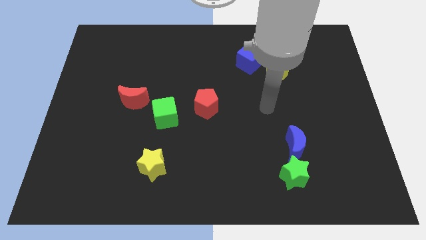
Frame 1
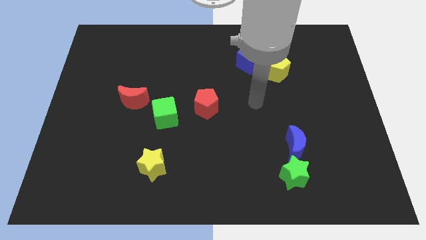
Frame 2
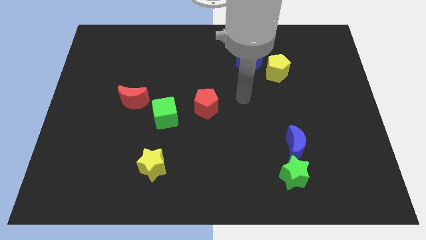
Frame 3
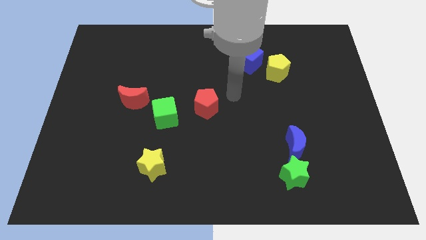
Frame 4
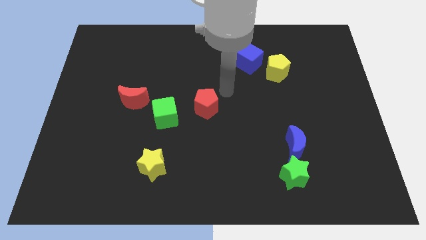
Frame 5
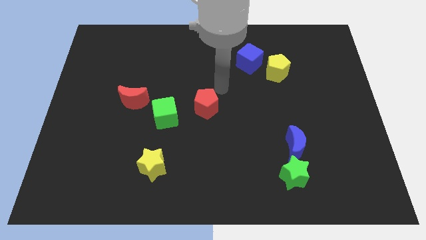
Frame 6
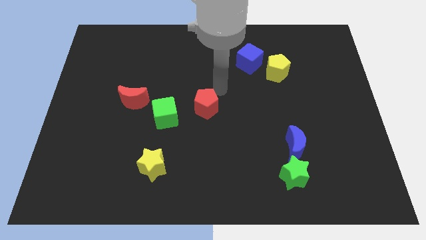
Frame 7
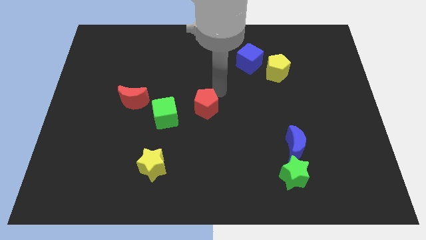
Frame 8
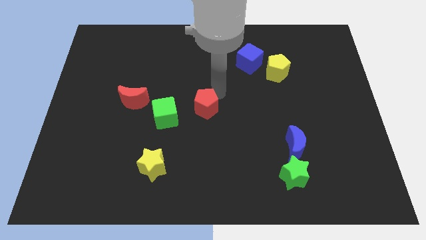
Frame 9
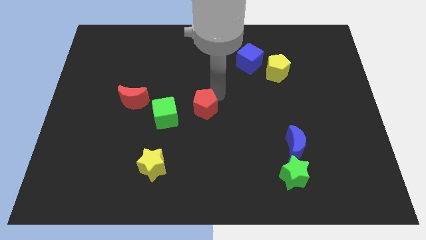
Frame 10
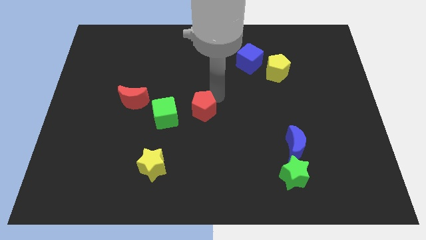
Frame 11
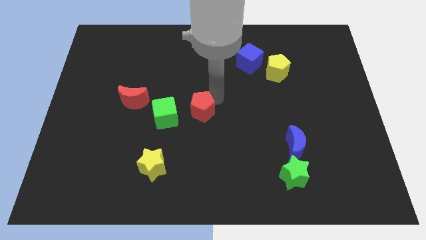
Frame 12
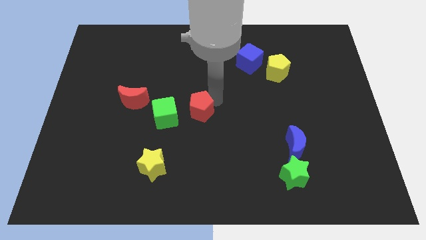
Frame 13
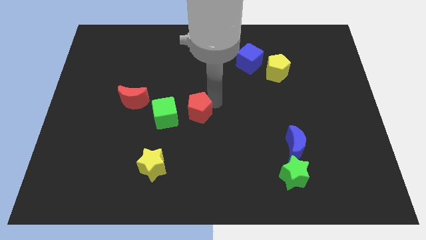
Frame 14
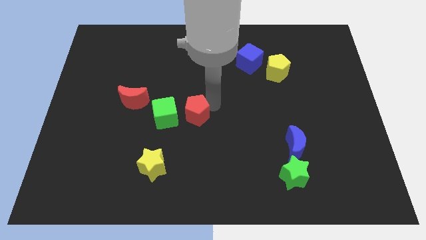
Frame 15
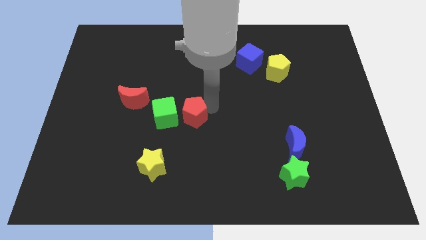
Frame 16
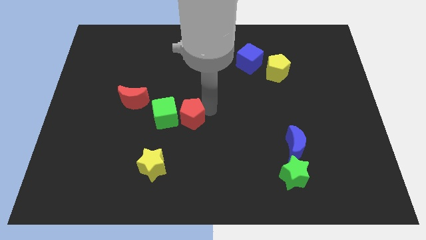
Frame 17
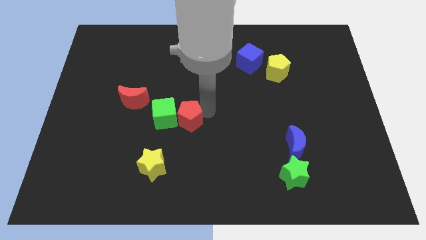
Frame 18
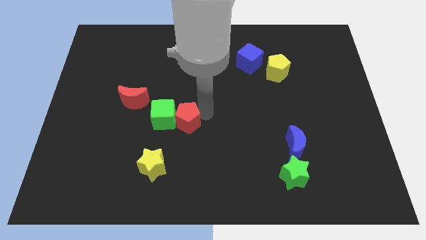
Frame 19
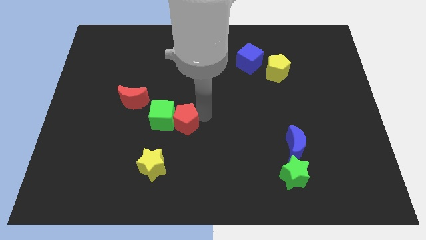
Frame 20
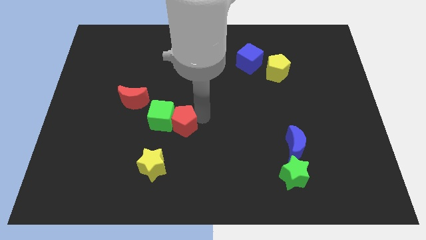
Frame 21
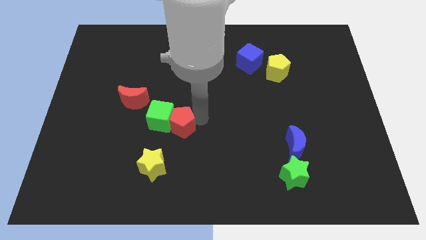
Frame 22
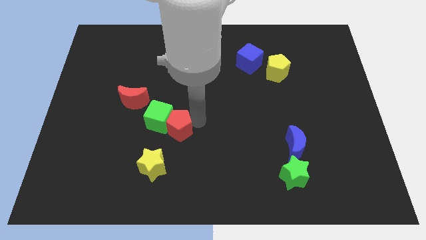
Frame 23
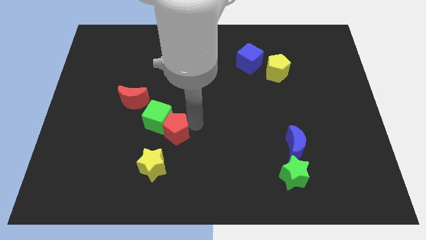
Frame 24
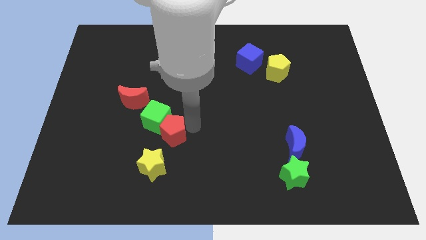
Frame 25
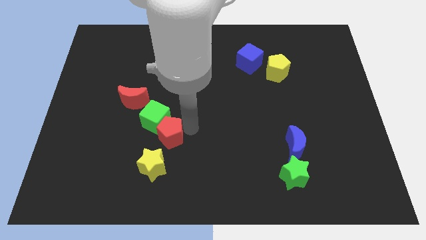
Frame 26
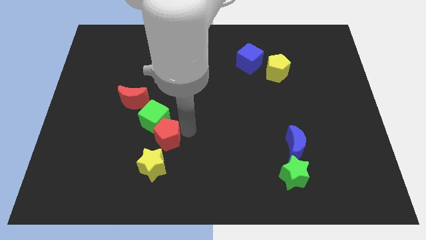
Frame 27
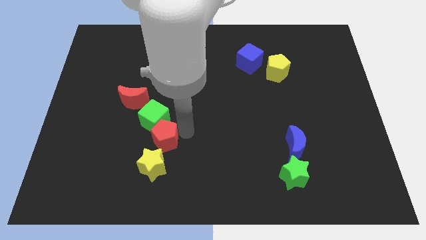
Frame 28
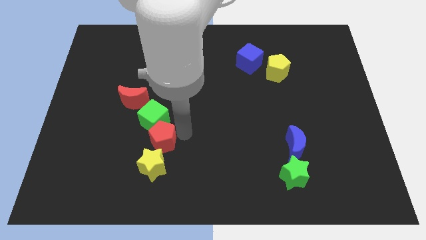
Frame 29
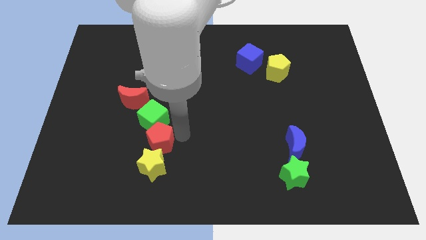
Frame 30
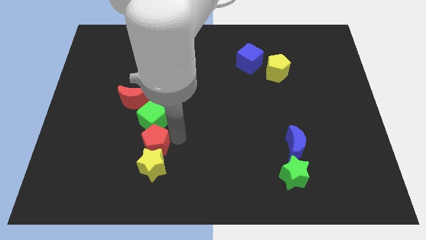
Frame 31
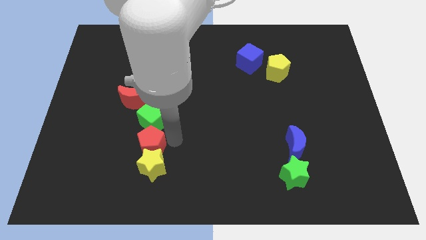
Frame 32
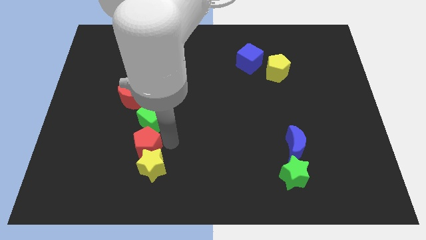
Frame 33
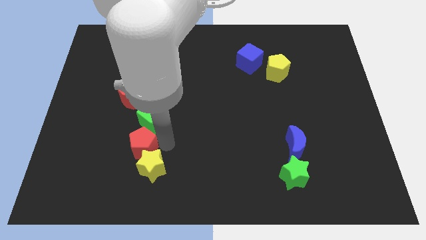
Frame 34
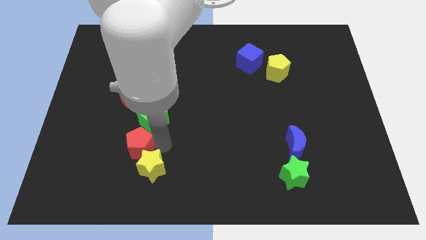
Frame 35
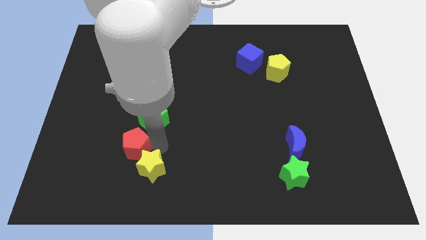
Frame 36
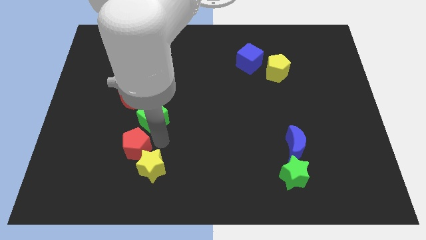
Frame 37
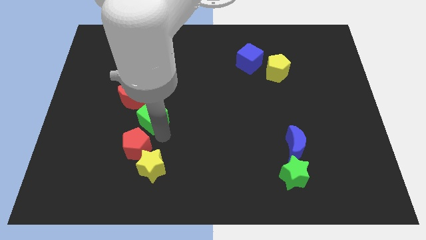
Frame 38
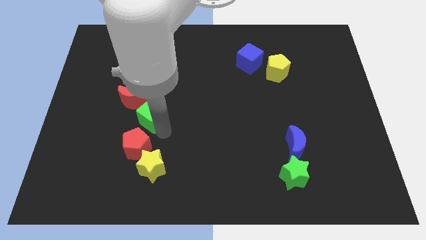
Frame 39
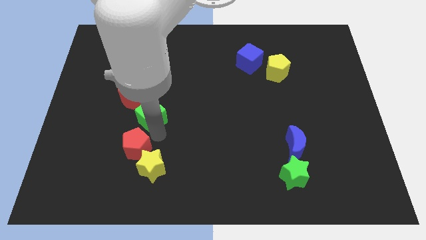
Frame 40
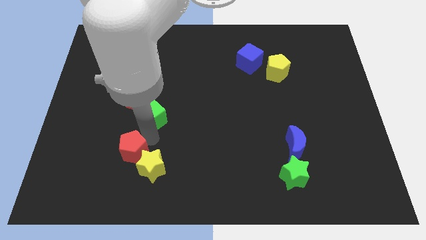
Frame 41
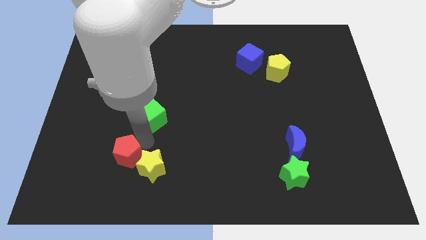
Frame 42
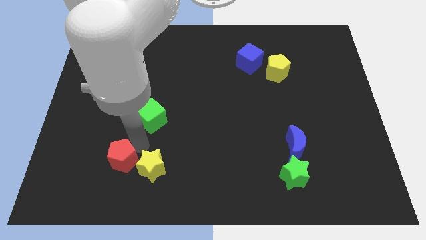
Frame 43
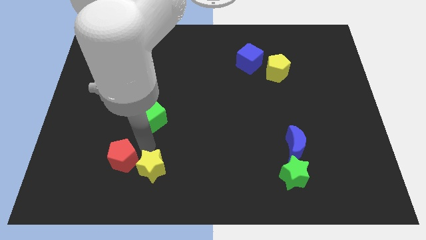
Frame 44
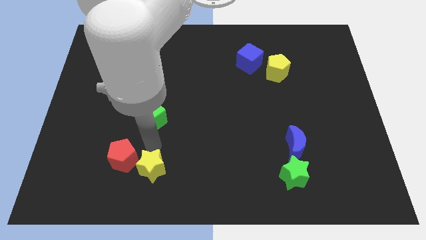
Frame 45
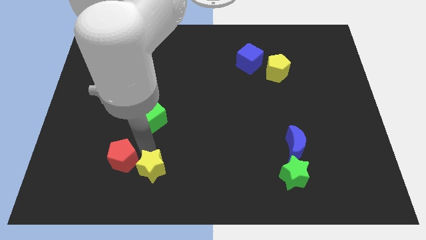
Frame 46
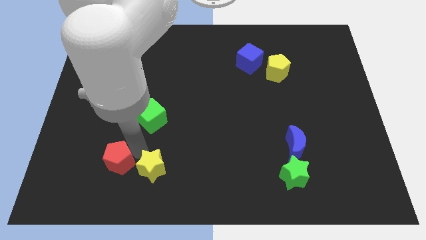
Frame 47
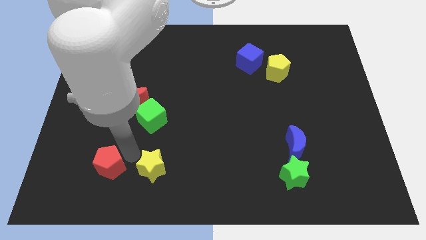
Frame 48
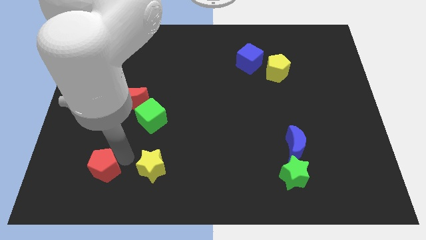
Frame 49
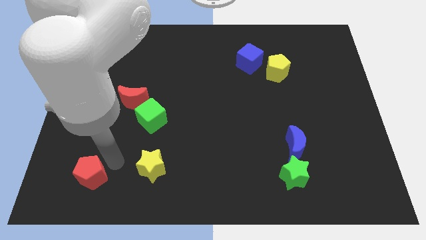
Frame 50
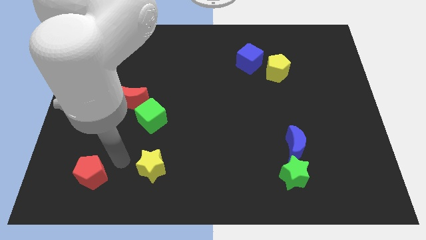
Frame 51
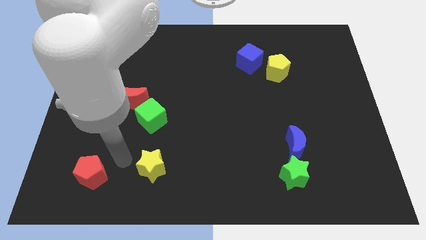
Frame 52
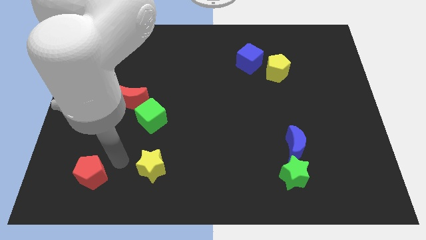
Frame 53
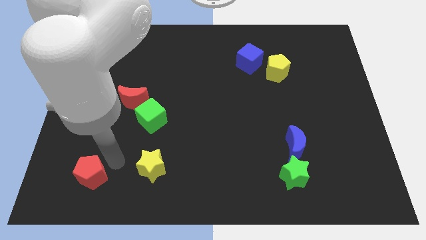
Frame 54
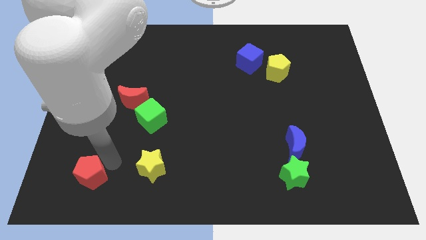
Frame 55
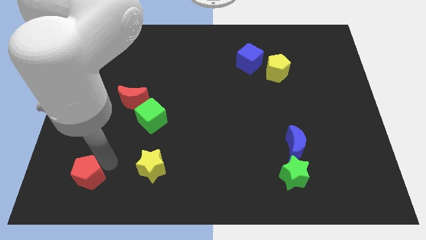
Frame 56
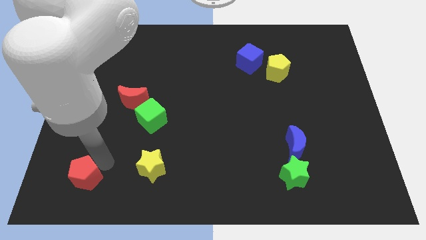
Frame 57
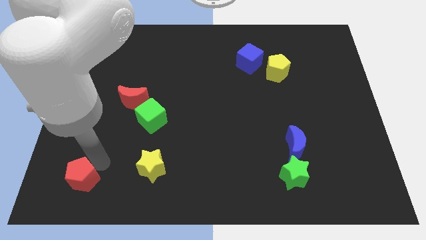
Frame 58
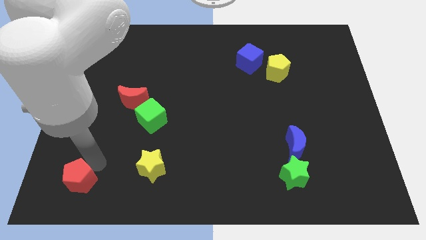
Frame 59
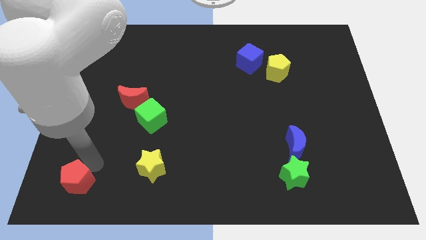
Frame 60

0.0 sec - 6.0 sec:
push the red pentagon to the bottom left of the board
